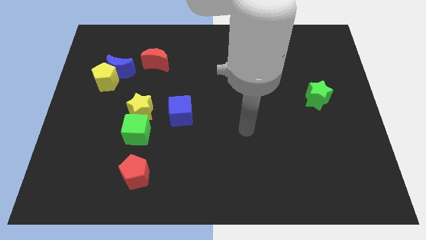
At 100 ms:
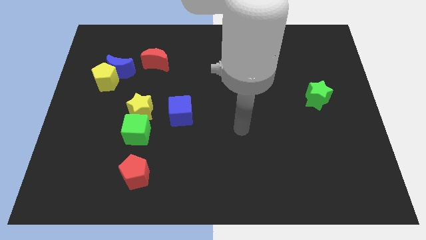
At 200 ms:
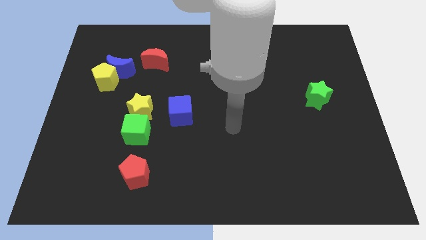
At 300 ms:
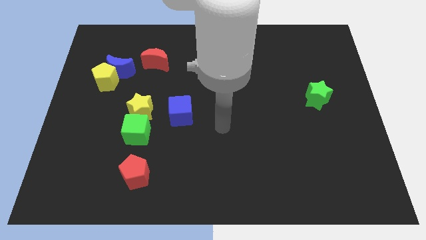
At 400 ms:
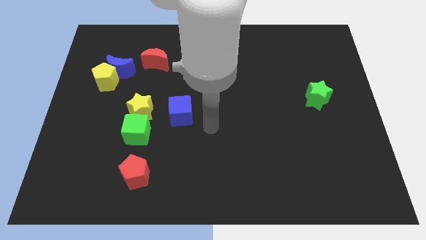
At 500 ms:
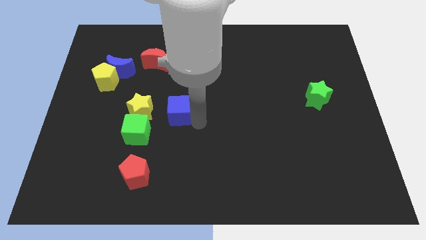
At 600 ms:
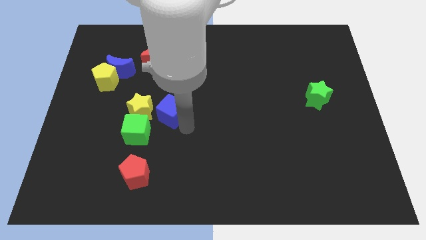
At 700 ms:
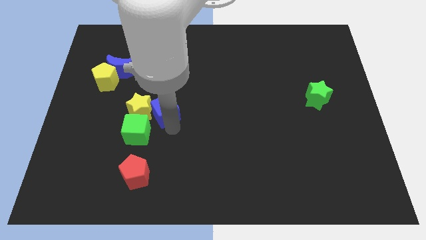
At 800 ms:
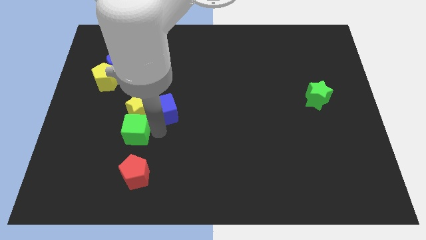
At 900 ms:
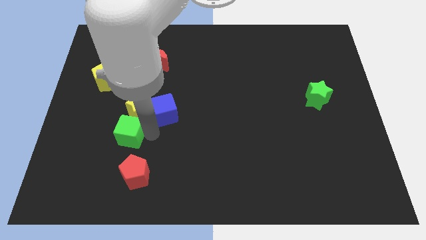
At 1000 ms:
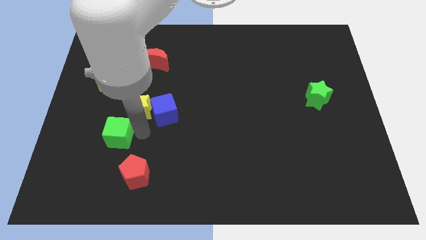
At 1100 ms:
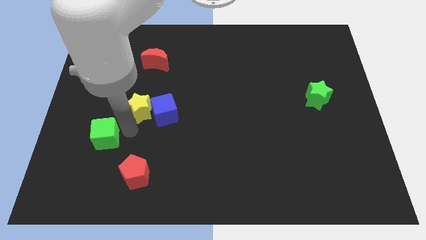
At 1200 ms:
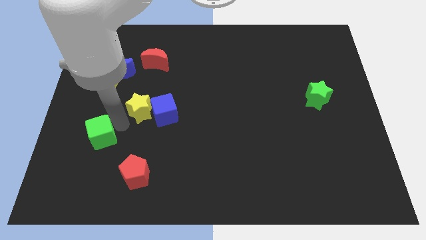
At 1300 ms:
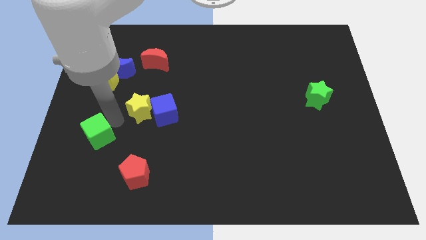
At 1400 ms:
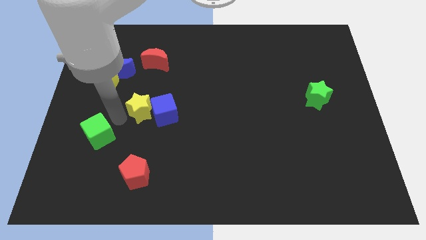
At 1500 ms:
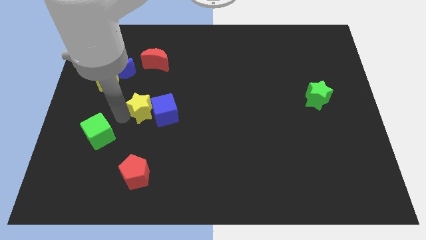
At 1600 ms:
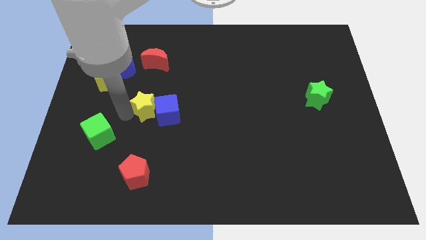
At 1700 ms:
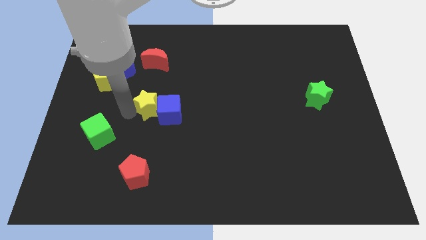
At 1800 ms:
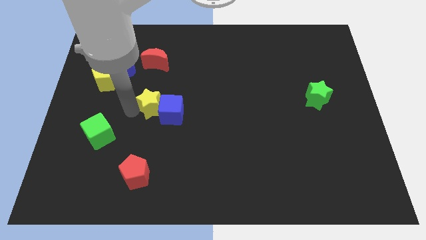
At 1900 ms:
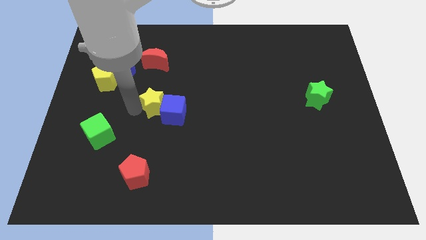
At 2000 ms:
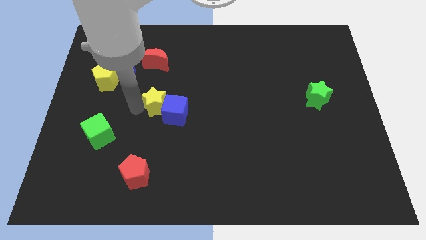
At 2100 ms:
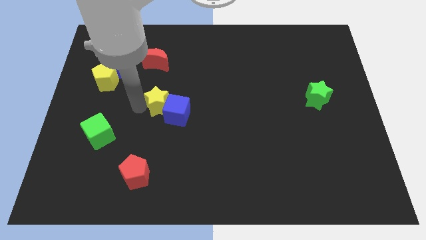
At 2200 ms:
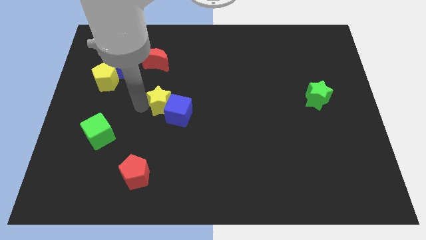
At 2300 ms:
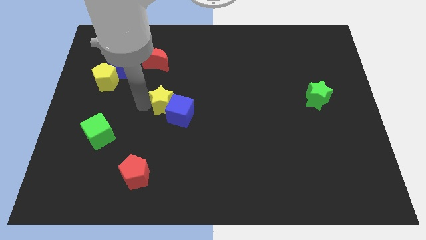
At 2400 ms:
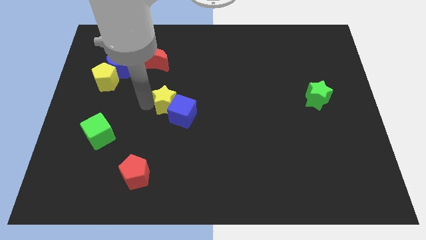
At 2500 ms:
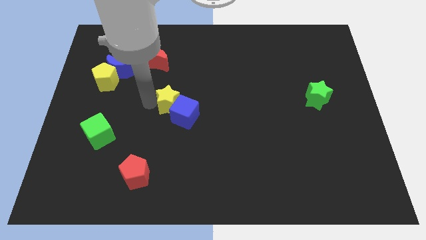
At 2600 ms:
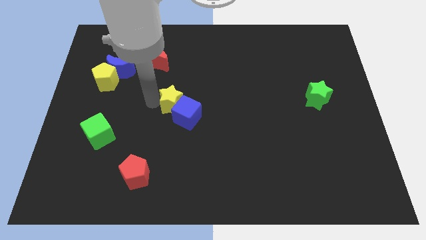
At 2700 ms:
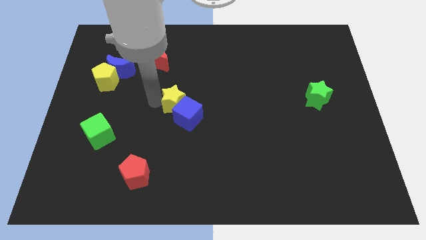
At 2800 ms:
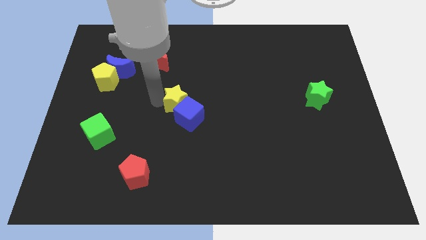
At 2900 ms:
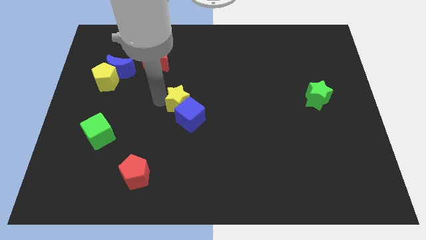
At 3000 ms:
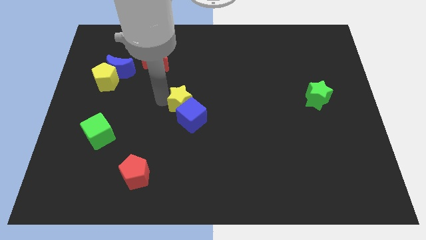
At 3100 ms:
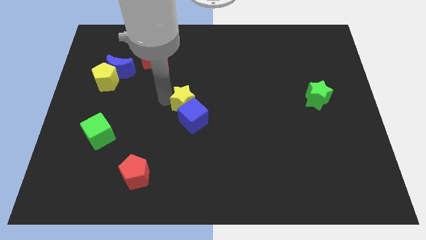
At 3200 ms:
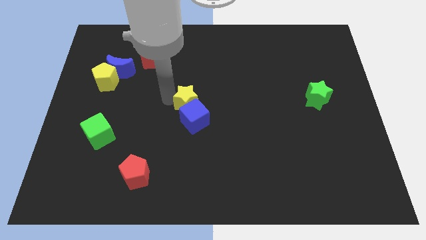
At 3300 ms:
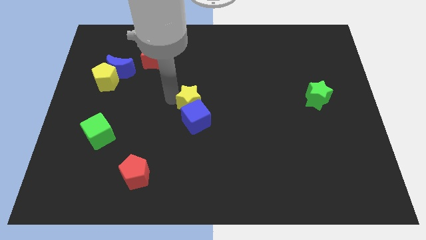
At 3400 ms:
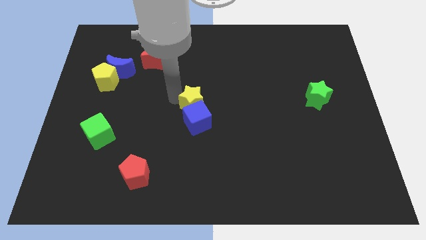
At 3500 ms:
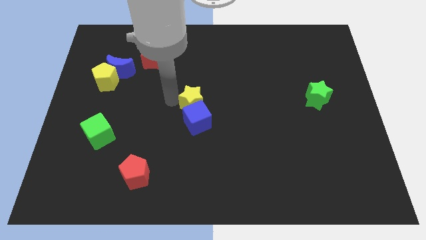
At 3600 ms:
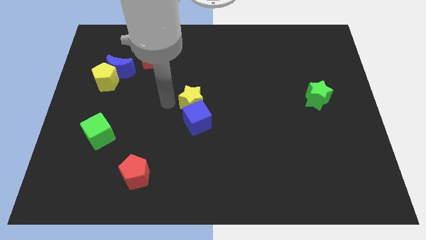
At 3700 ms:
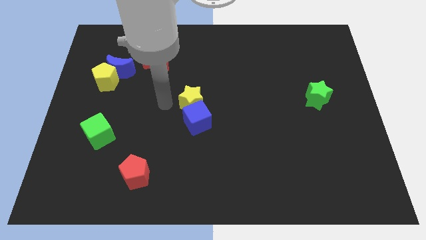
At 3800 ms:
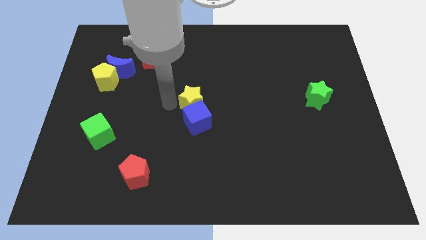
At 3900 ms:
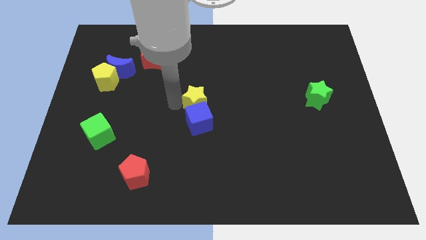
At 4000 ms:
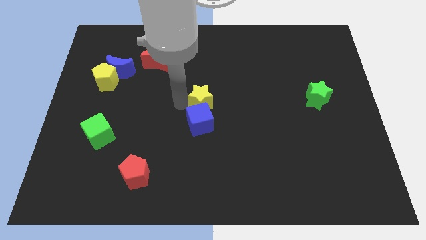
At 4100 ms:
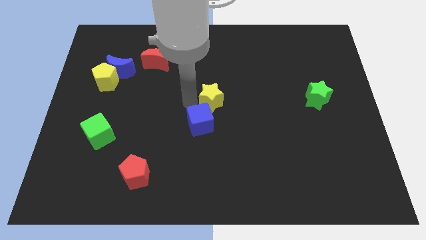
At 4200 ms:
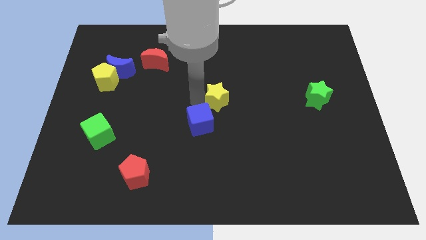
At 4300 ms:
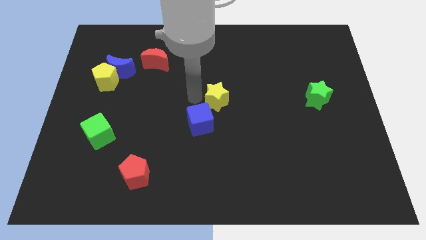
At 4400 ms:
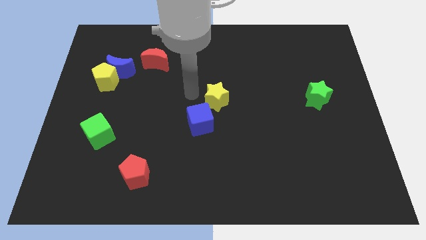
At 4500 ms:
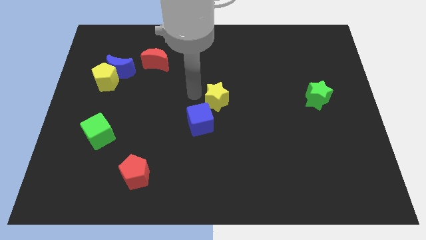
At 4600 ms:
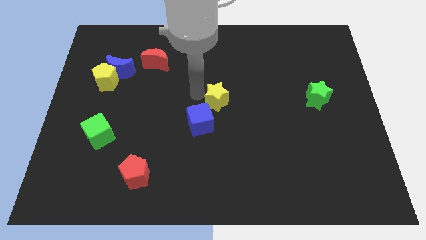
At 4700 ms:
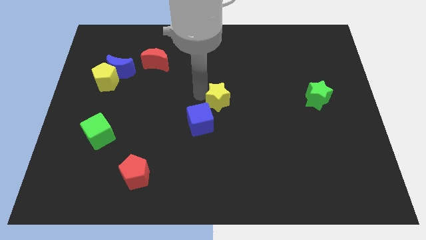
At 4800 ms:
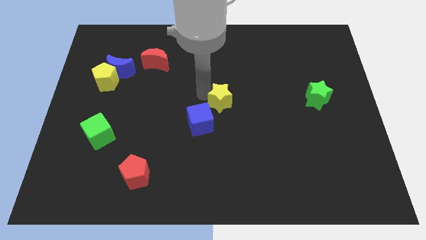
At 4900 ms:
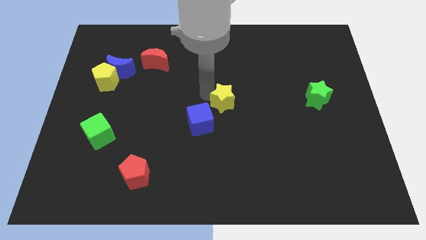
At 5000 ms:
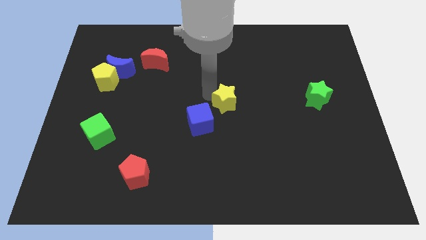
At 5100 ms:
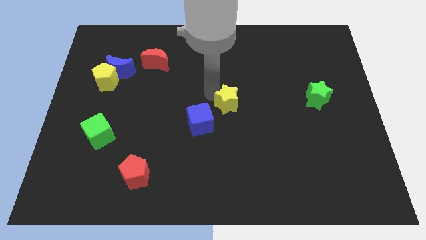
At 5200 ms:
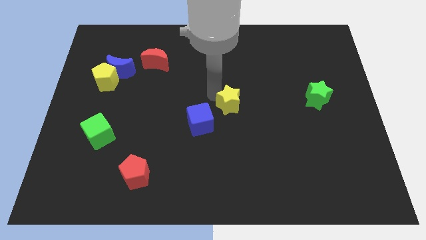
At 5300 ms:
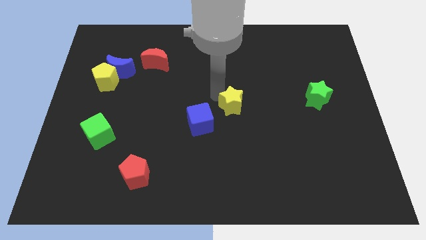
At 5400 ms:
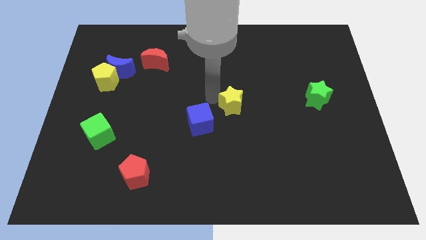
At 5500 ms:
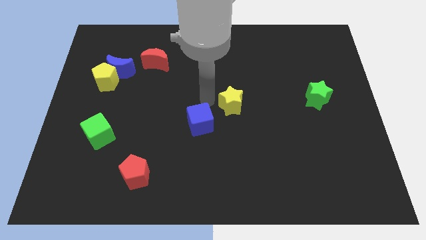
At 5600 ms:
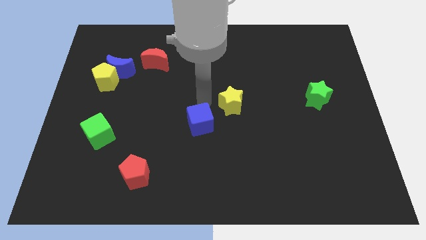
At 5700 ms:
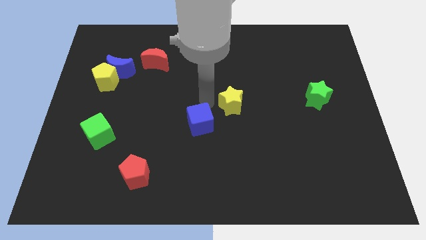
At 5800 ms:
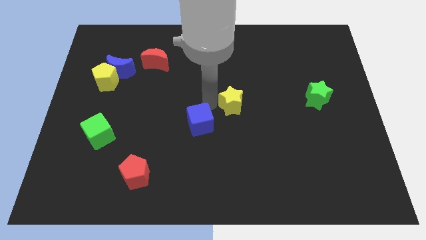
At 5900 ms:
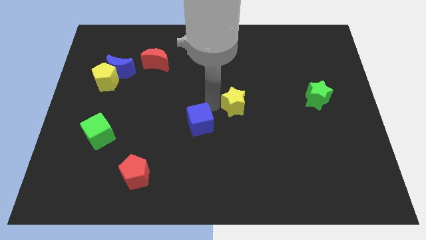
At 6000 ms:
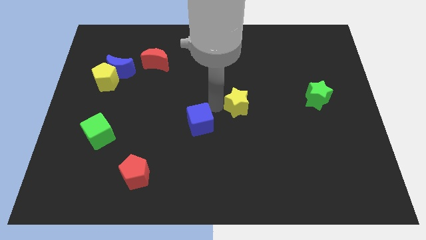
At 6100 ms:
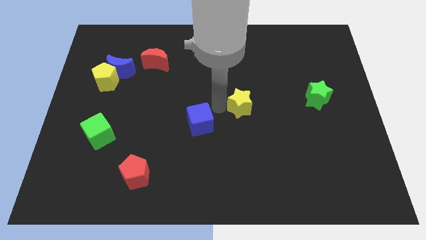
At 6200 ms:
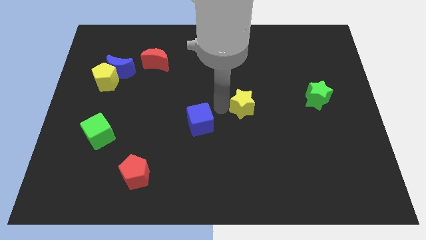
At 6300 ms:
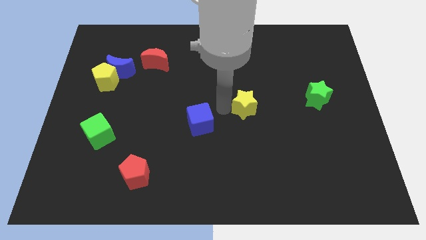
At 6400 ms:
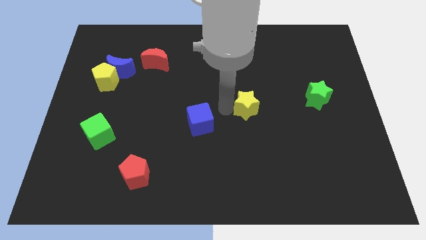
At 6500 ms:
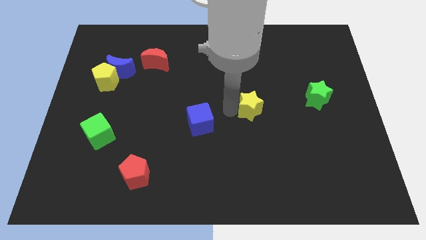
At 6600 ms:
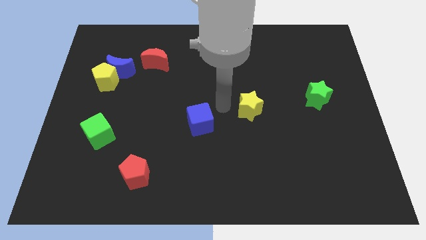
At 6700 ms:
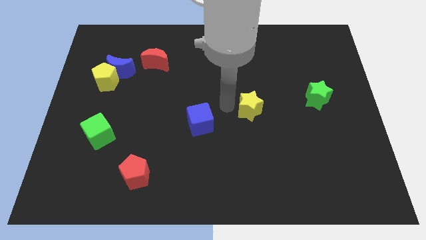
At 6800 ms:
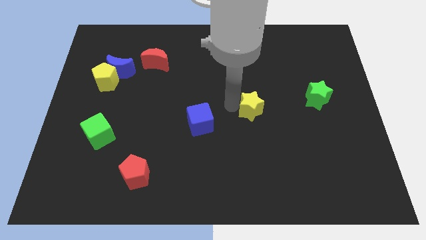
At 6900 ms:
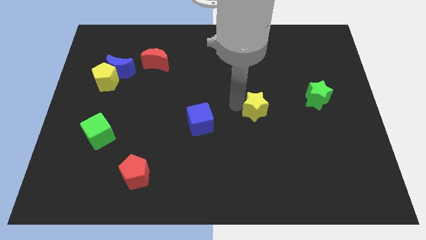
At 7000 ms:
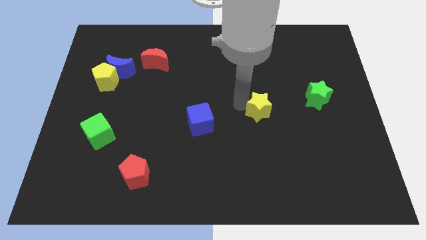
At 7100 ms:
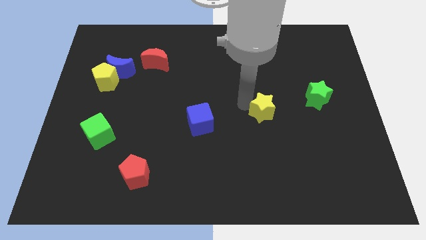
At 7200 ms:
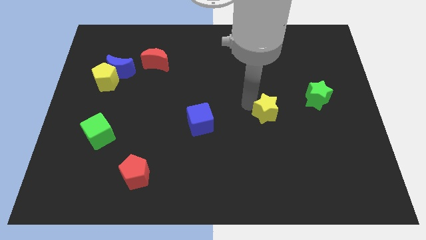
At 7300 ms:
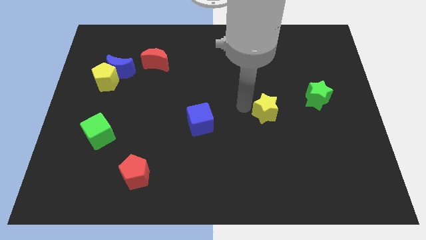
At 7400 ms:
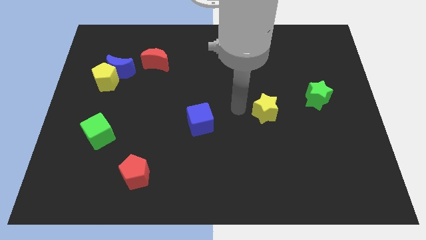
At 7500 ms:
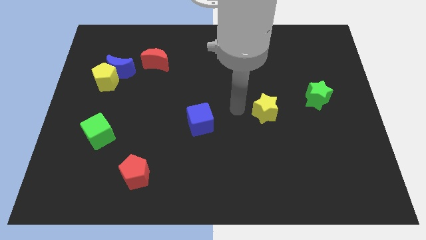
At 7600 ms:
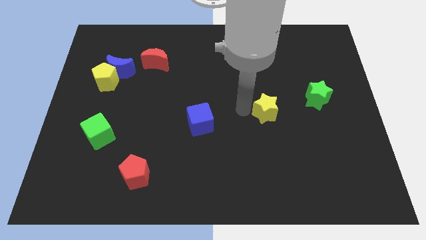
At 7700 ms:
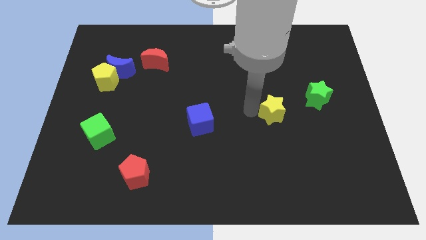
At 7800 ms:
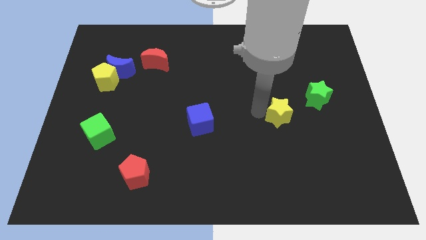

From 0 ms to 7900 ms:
put the yellow star to the bottom left side of the green star
